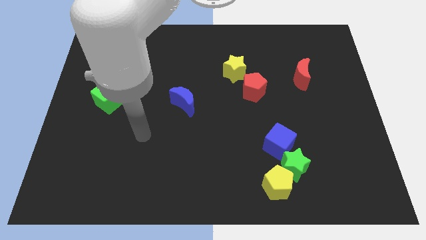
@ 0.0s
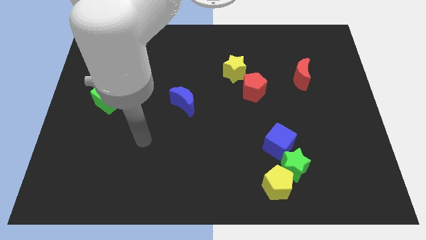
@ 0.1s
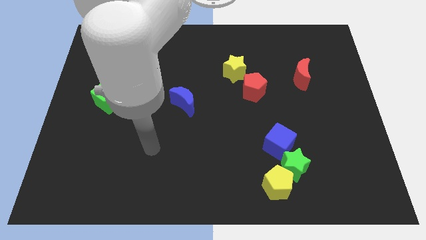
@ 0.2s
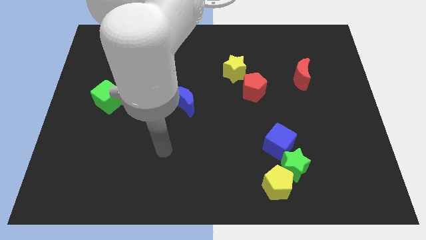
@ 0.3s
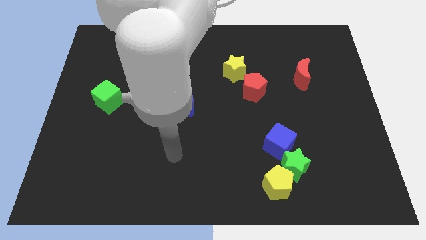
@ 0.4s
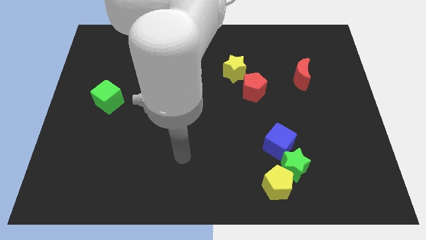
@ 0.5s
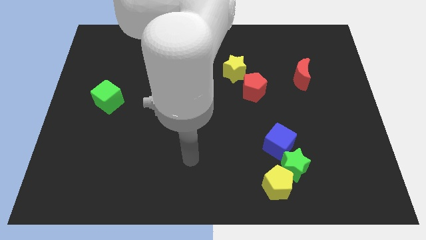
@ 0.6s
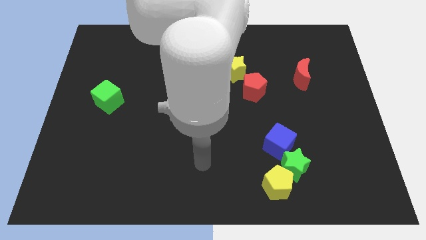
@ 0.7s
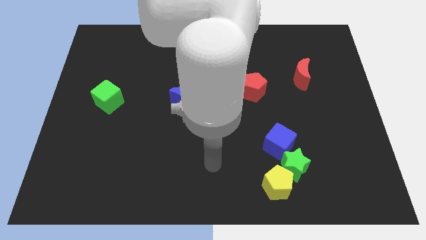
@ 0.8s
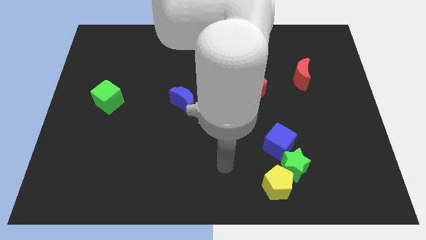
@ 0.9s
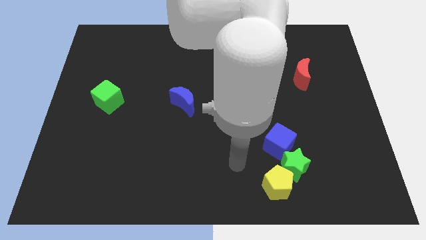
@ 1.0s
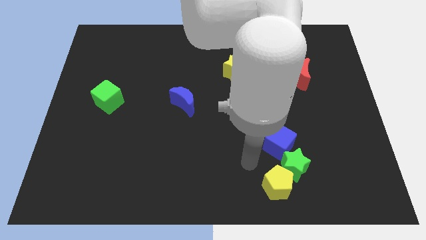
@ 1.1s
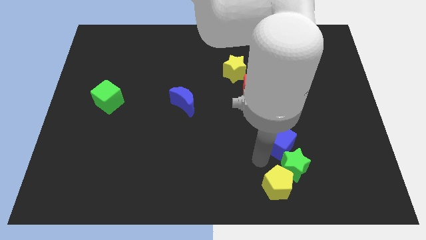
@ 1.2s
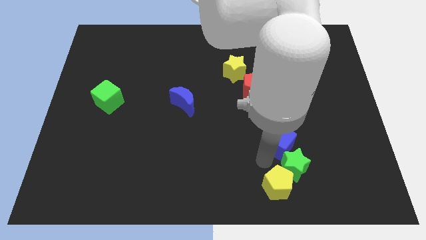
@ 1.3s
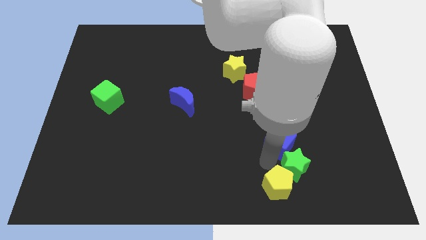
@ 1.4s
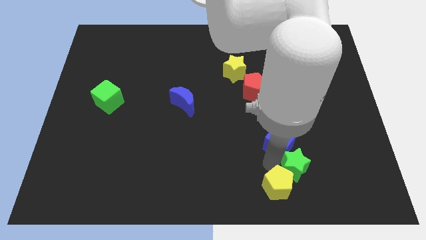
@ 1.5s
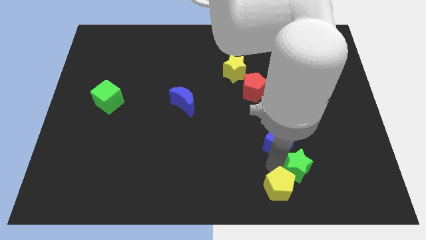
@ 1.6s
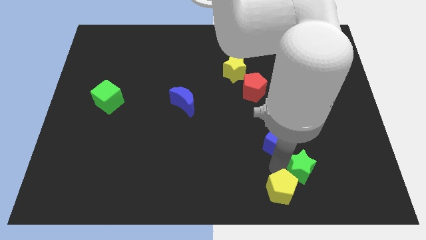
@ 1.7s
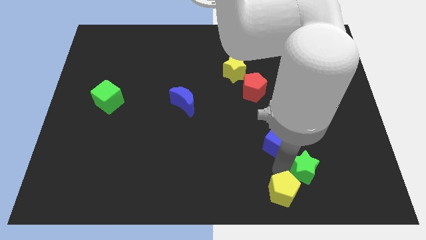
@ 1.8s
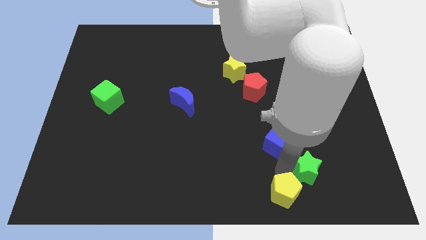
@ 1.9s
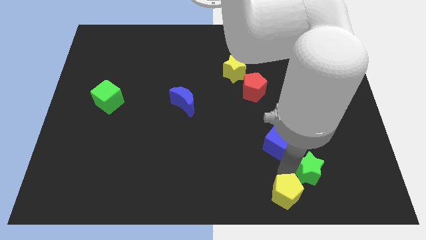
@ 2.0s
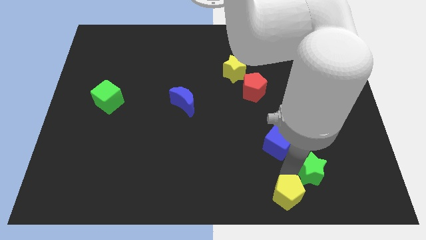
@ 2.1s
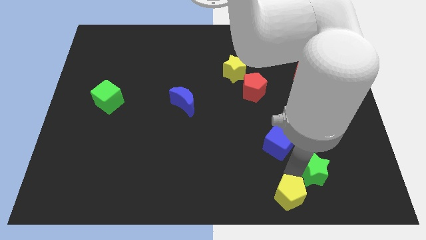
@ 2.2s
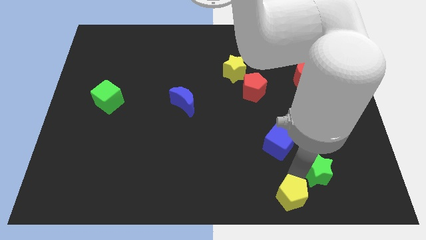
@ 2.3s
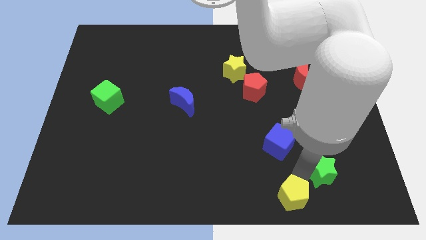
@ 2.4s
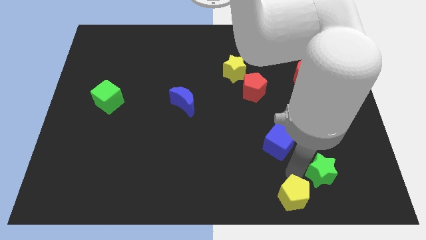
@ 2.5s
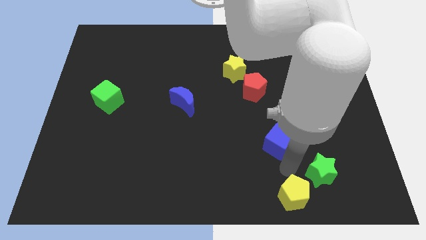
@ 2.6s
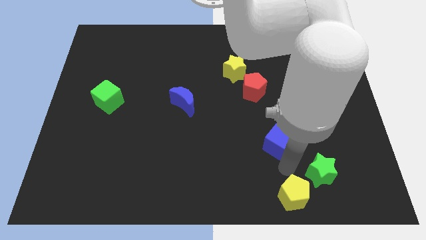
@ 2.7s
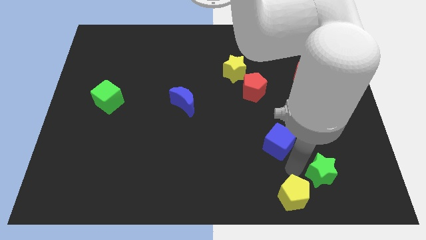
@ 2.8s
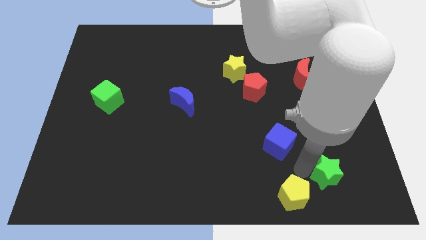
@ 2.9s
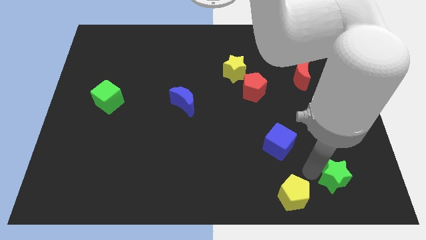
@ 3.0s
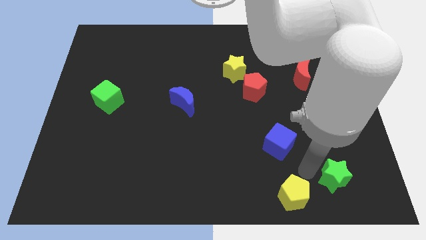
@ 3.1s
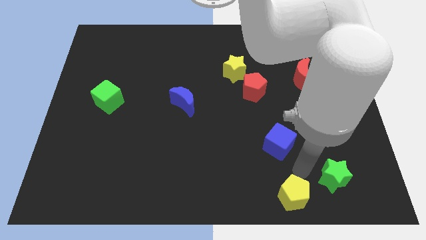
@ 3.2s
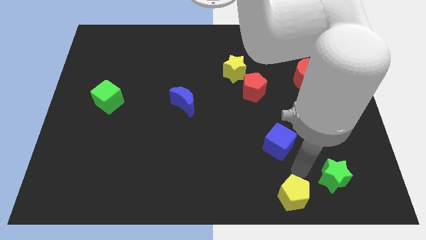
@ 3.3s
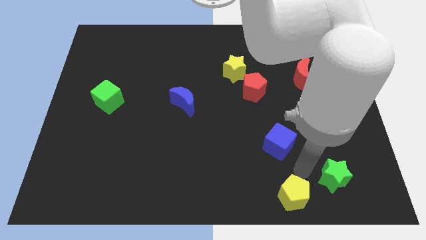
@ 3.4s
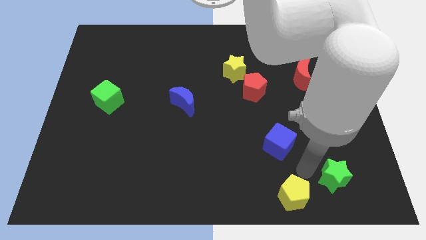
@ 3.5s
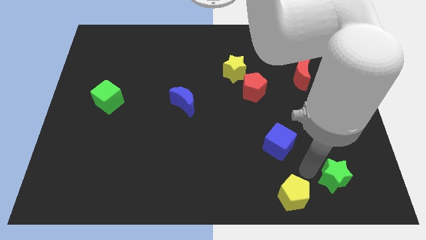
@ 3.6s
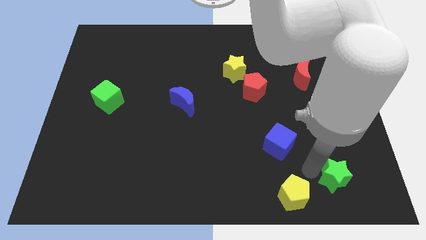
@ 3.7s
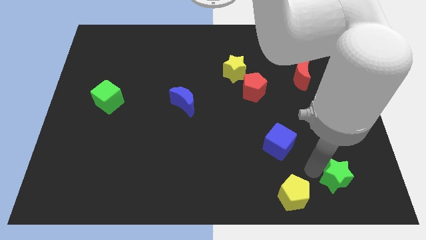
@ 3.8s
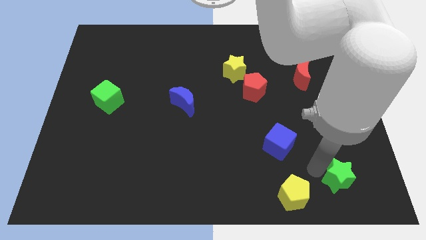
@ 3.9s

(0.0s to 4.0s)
separate the green star from the yellow pentagon and blue cube

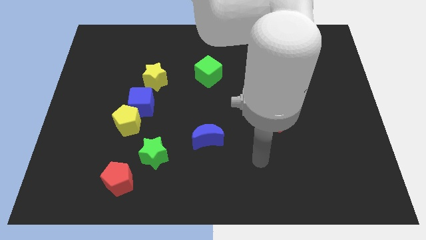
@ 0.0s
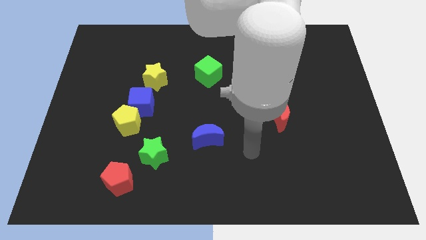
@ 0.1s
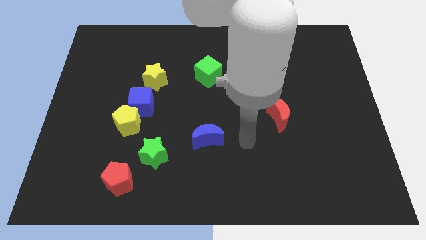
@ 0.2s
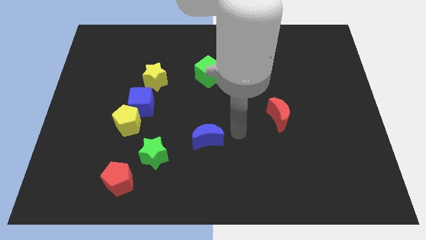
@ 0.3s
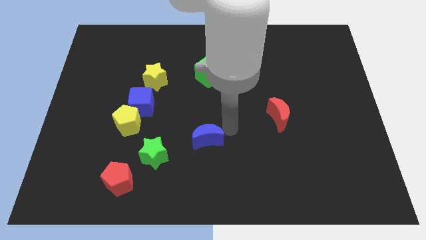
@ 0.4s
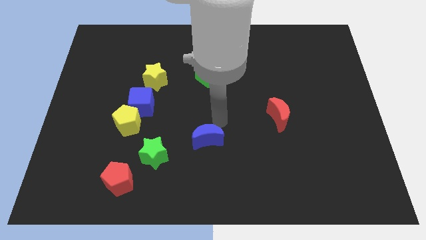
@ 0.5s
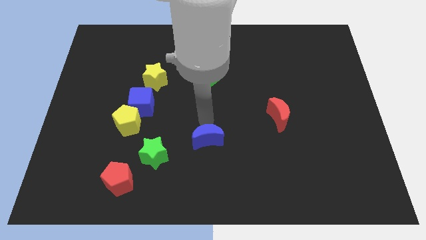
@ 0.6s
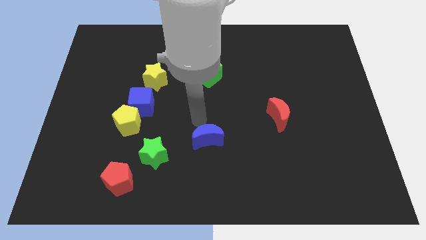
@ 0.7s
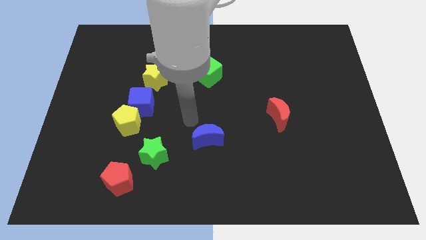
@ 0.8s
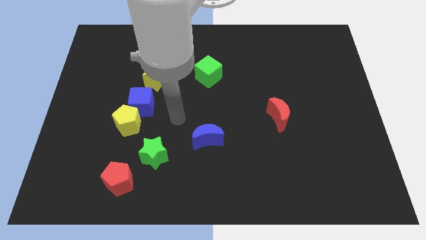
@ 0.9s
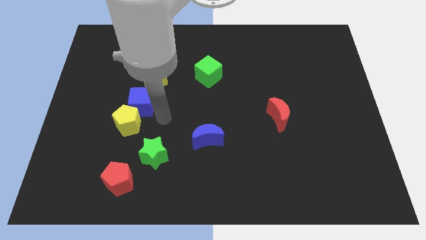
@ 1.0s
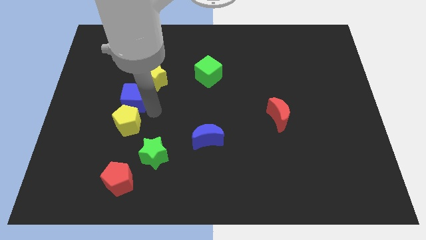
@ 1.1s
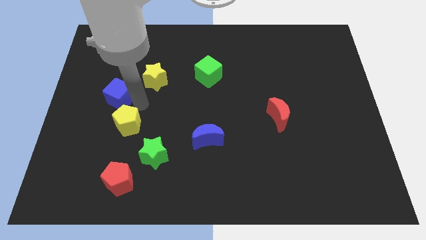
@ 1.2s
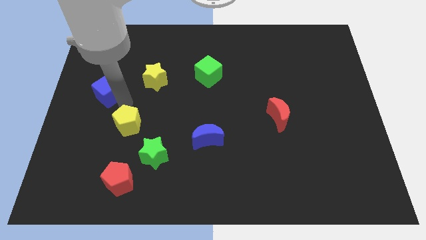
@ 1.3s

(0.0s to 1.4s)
move the yellow pentagon away from the blue cube

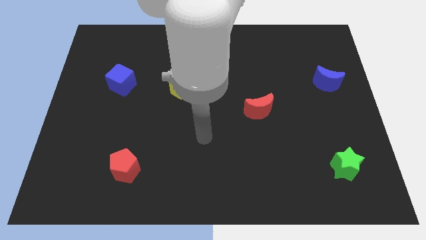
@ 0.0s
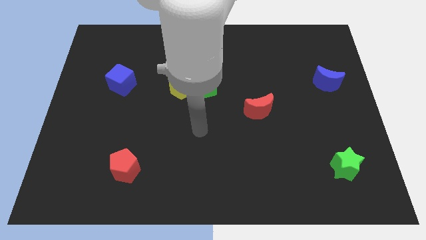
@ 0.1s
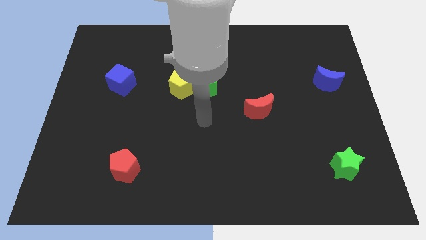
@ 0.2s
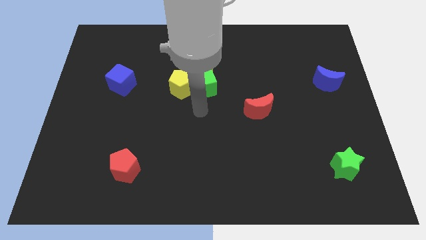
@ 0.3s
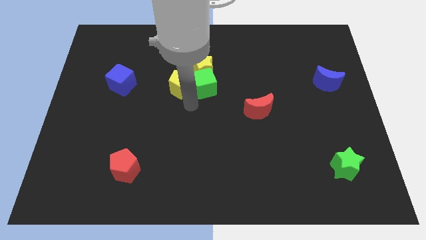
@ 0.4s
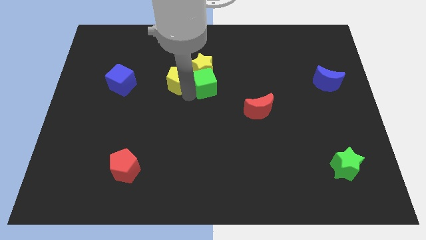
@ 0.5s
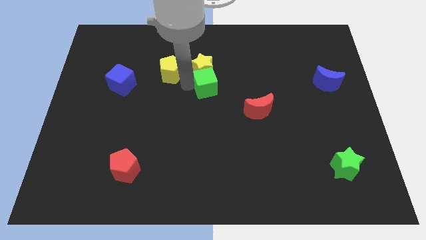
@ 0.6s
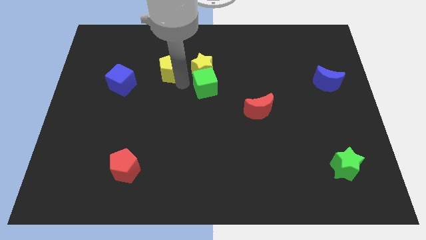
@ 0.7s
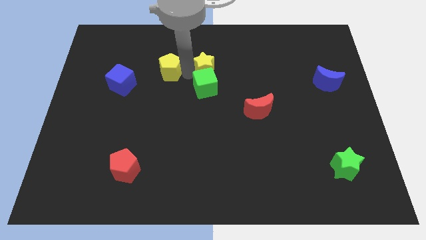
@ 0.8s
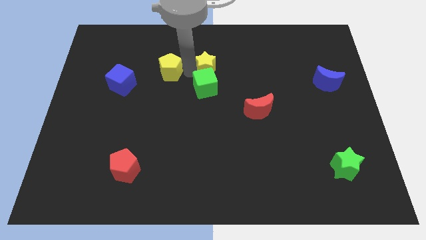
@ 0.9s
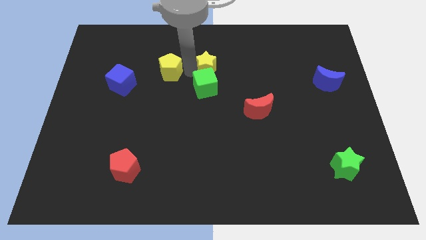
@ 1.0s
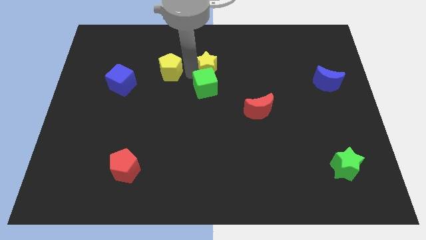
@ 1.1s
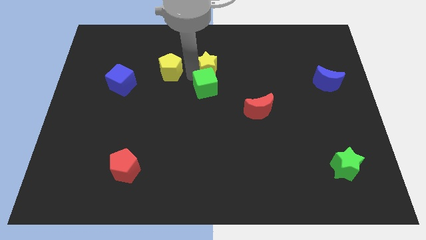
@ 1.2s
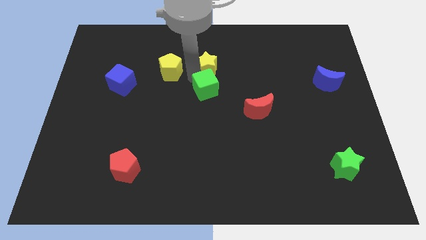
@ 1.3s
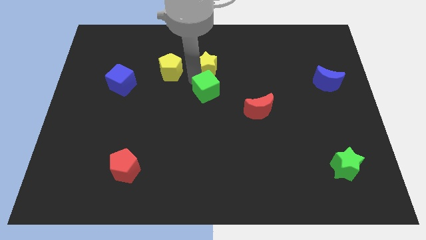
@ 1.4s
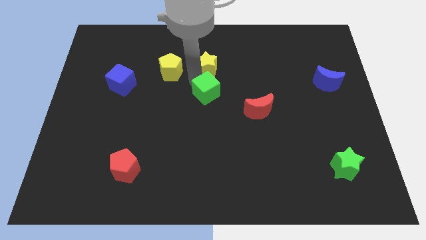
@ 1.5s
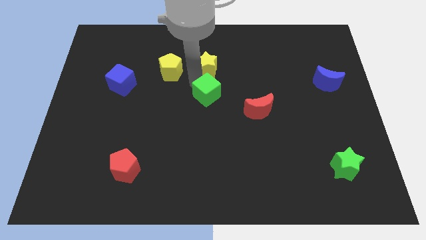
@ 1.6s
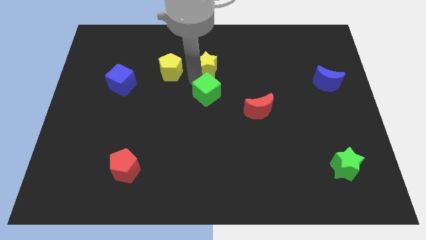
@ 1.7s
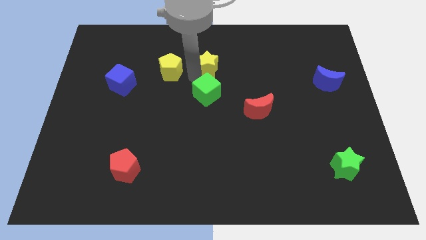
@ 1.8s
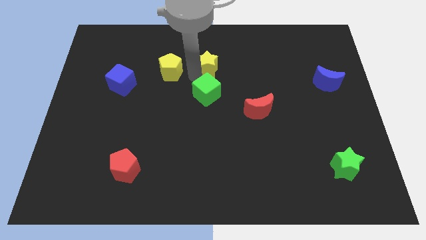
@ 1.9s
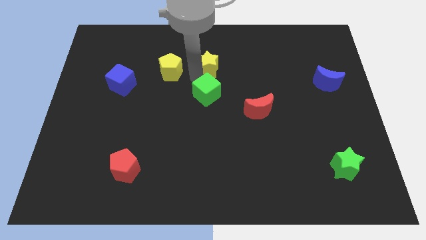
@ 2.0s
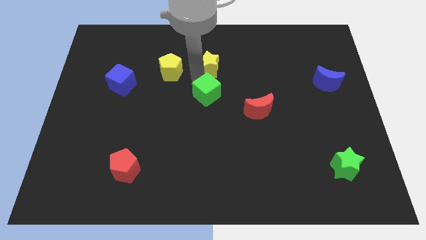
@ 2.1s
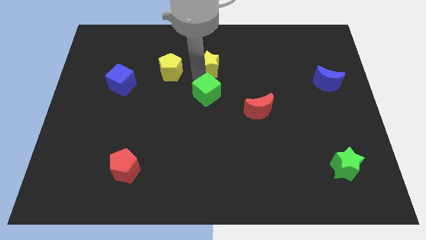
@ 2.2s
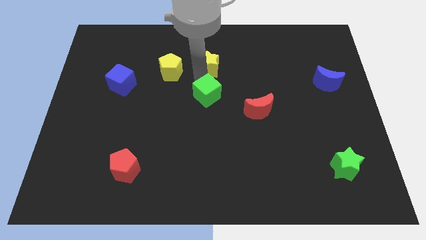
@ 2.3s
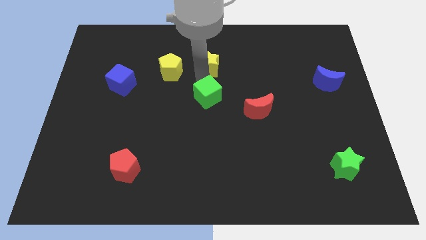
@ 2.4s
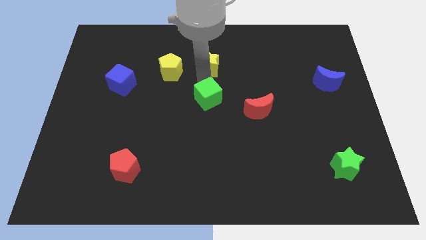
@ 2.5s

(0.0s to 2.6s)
separate the green cube from the yellow star and yellow pentagon

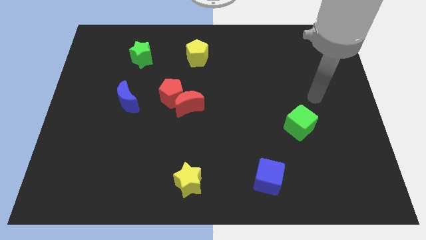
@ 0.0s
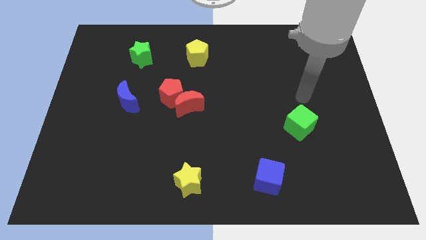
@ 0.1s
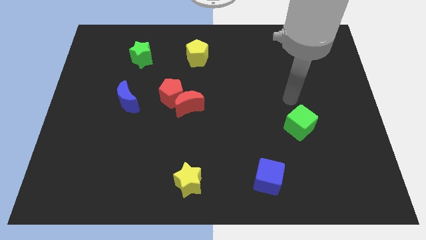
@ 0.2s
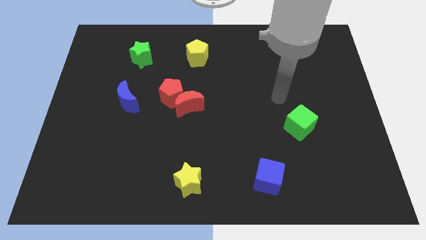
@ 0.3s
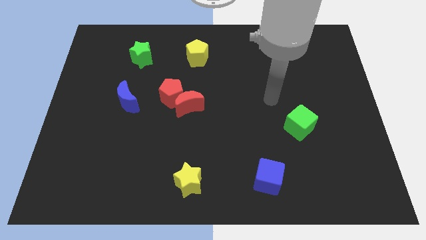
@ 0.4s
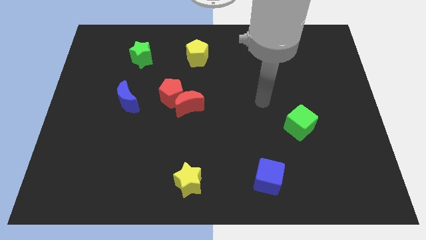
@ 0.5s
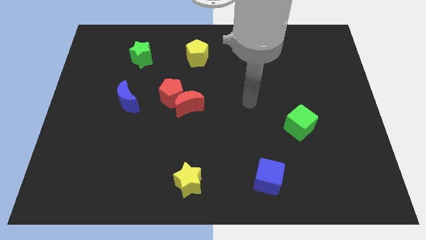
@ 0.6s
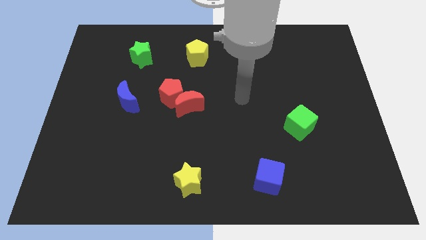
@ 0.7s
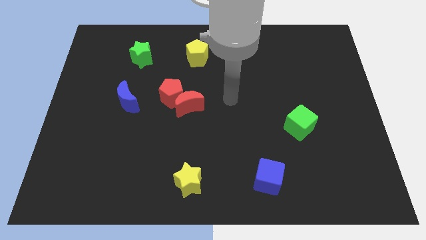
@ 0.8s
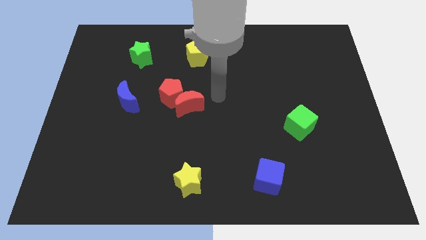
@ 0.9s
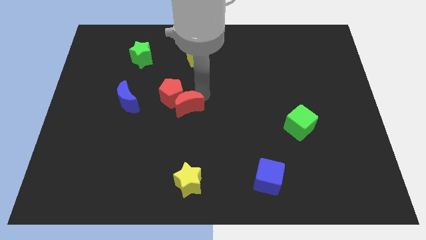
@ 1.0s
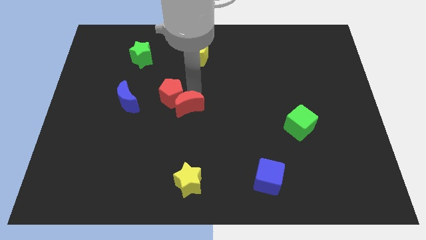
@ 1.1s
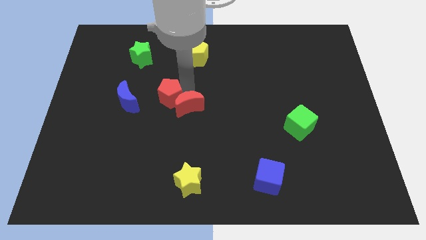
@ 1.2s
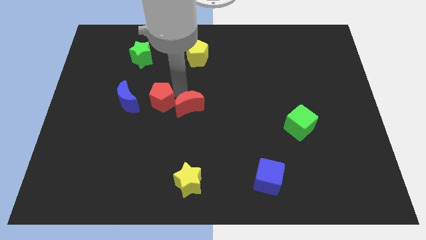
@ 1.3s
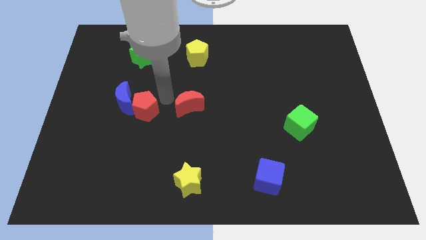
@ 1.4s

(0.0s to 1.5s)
pull the red moon apart from the red pentagon
